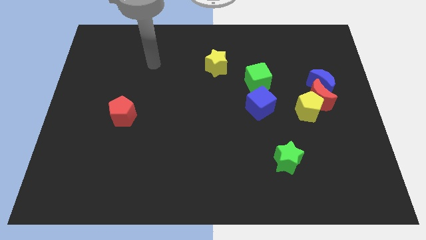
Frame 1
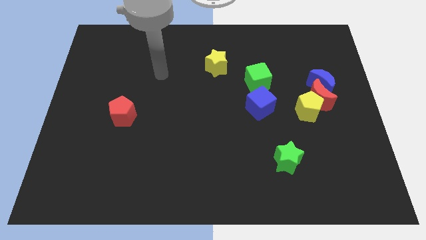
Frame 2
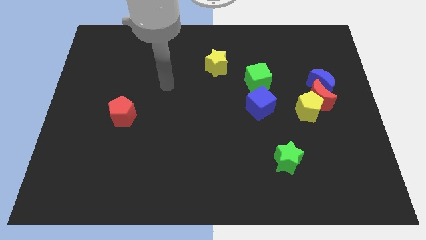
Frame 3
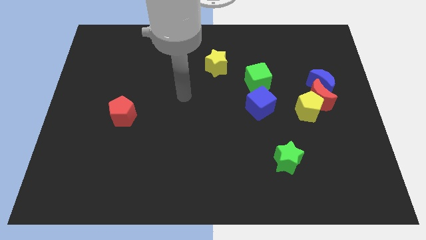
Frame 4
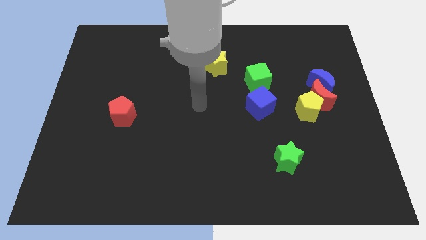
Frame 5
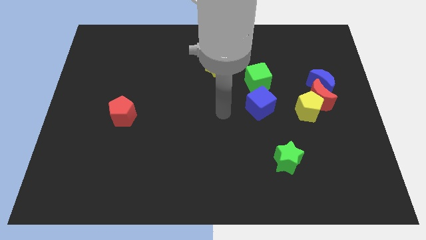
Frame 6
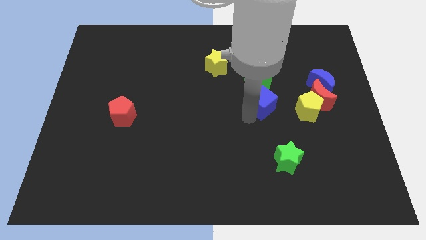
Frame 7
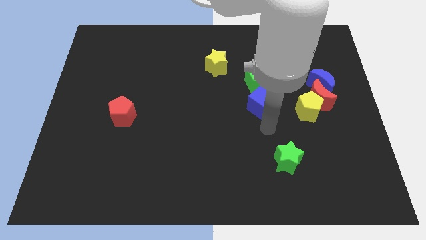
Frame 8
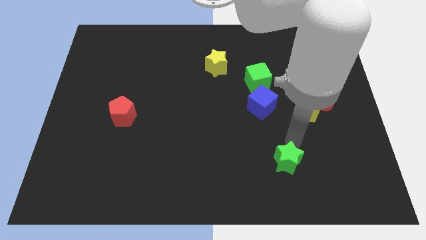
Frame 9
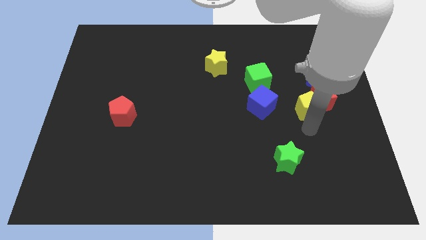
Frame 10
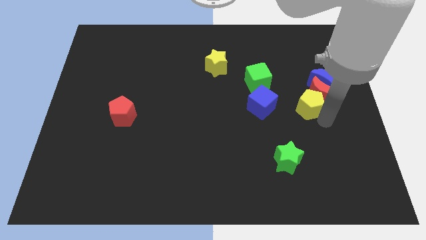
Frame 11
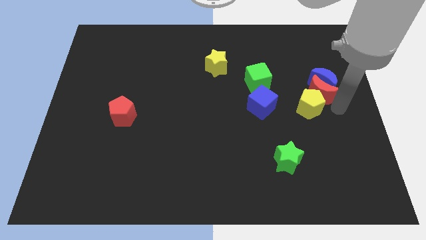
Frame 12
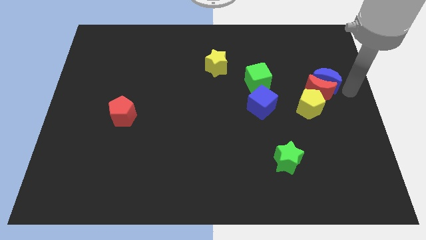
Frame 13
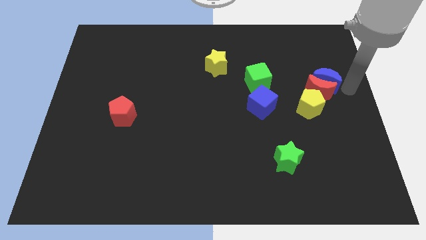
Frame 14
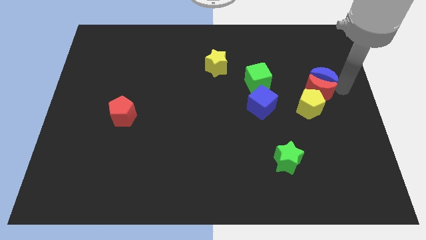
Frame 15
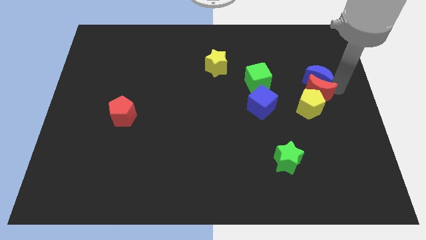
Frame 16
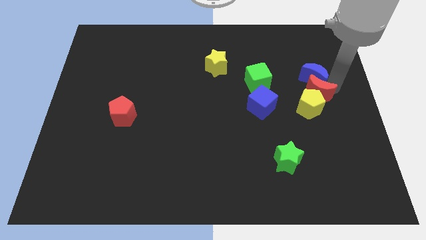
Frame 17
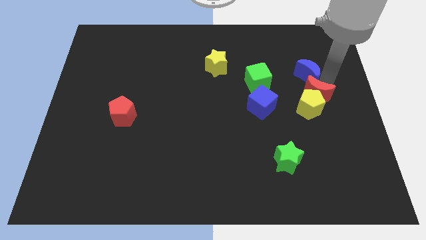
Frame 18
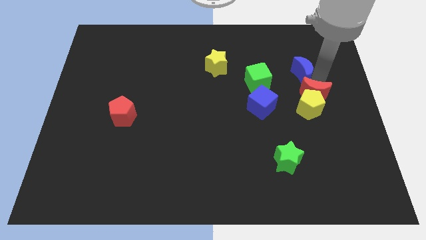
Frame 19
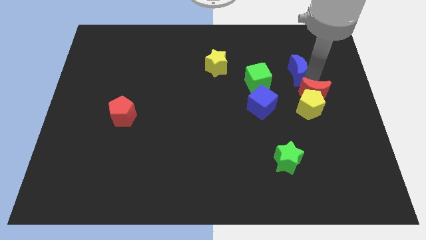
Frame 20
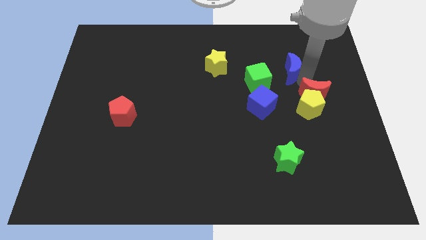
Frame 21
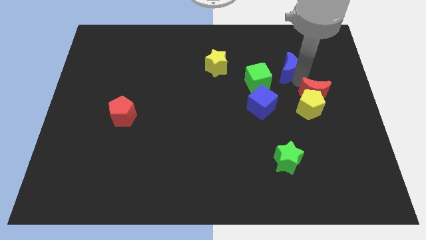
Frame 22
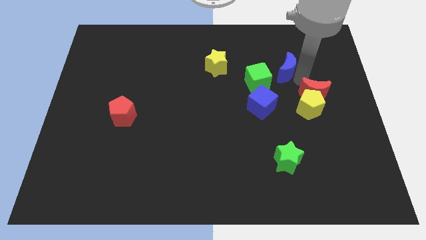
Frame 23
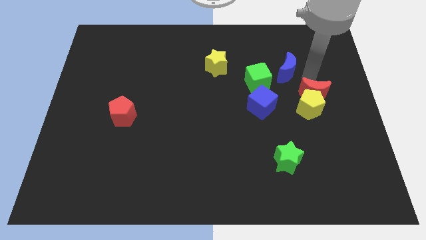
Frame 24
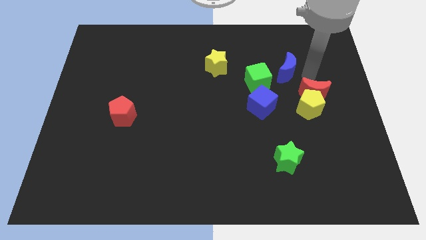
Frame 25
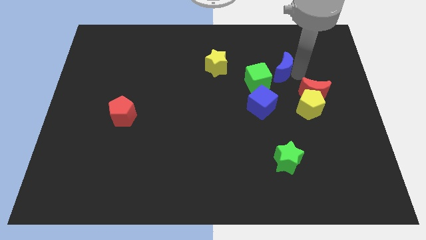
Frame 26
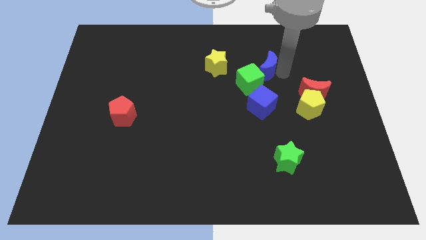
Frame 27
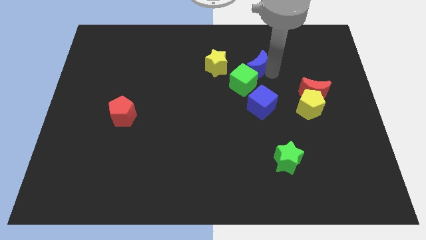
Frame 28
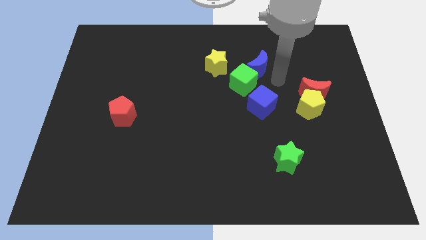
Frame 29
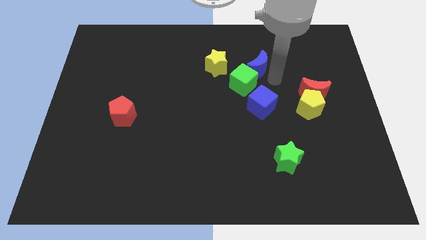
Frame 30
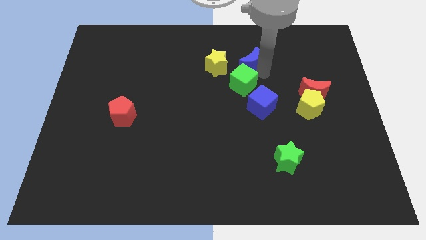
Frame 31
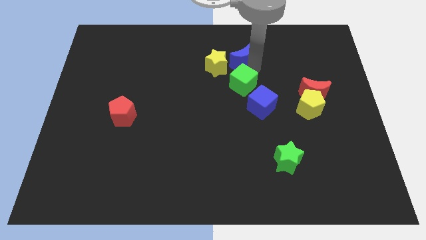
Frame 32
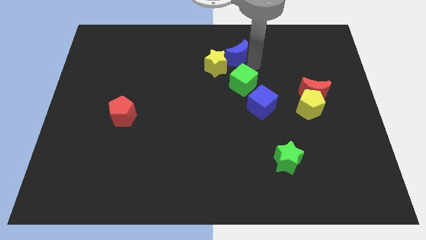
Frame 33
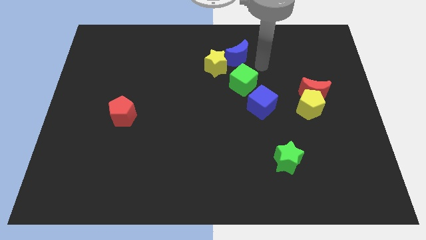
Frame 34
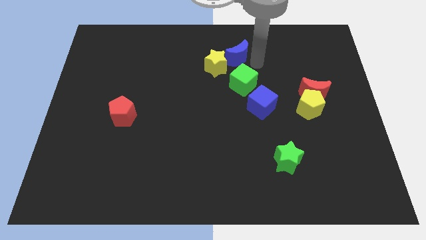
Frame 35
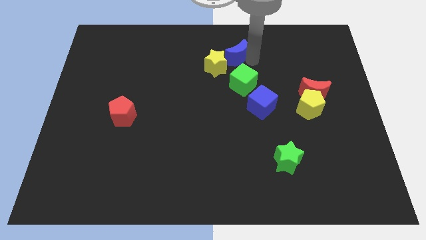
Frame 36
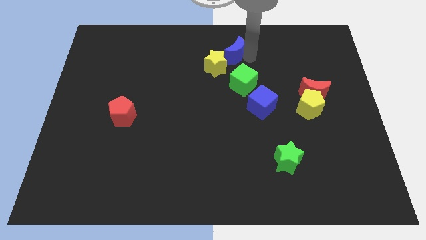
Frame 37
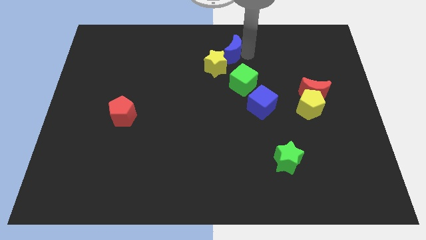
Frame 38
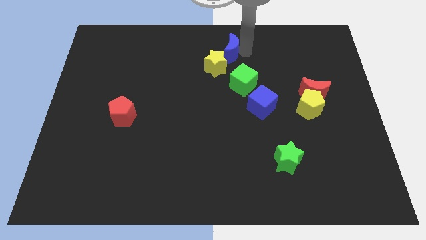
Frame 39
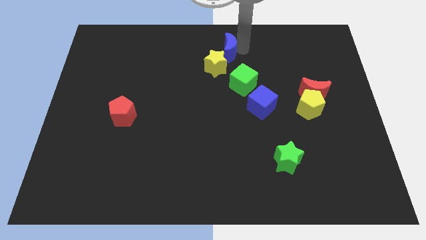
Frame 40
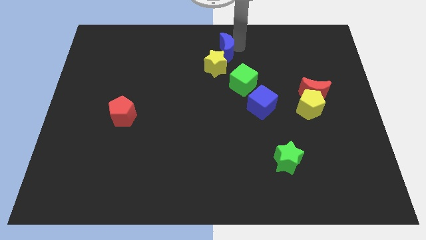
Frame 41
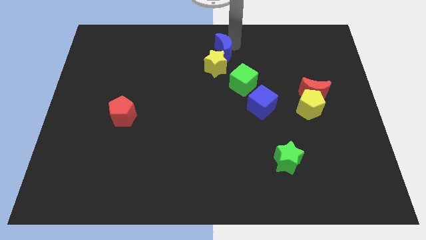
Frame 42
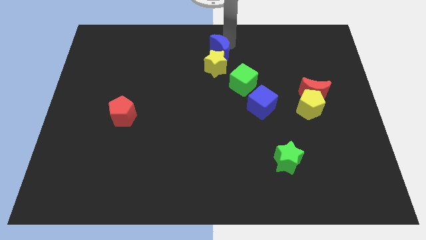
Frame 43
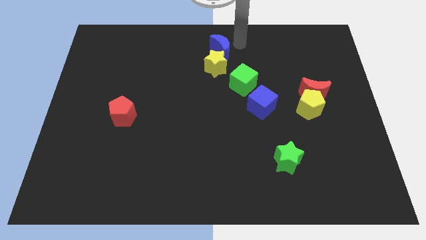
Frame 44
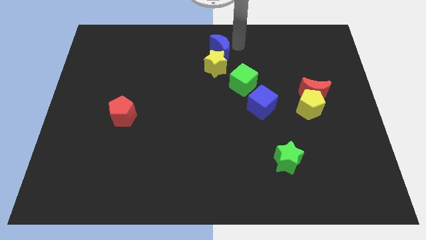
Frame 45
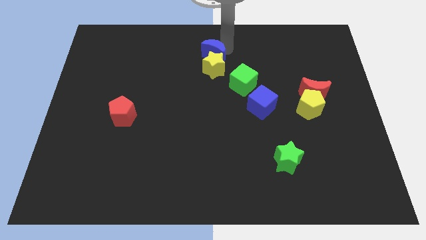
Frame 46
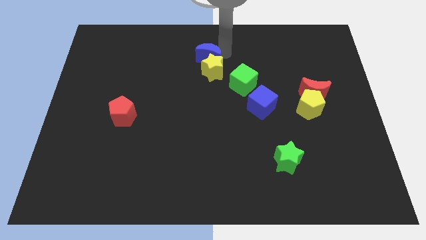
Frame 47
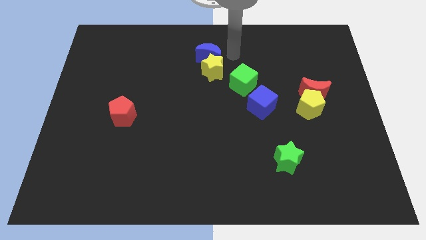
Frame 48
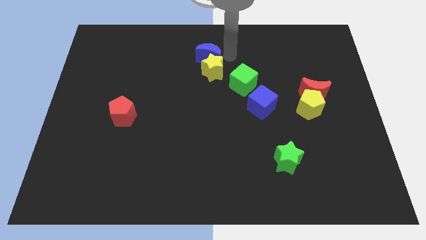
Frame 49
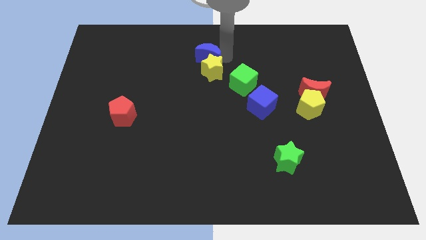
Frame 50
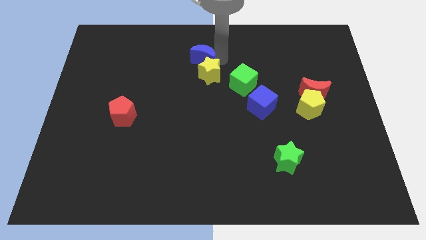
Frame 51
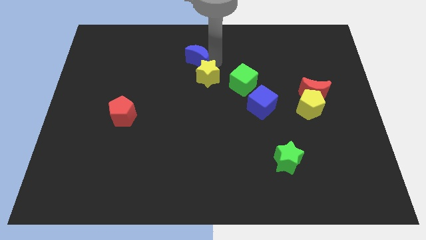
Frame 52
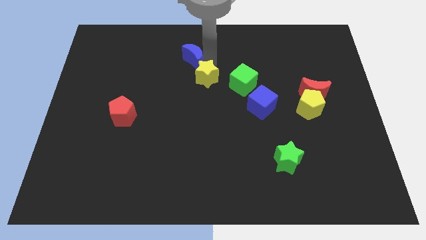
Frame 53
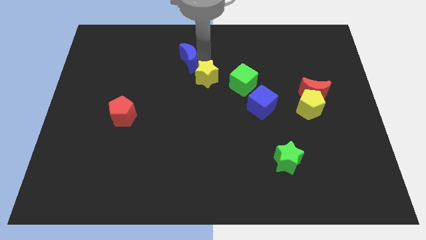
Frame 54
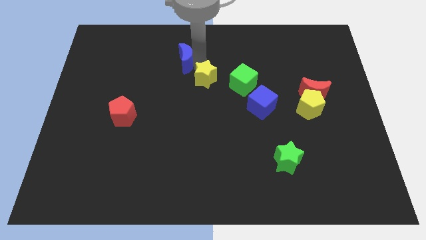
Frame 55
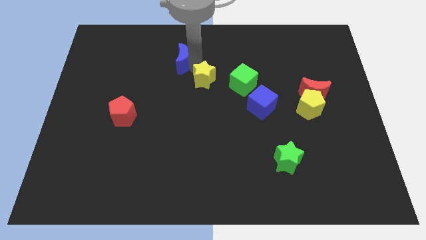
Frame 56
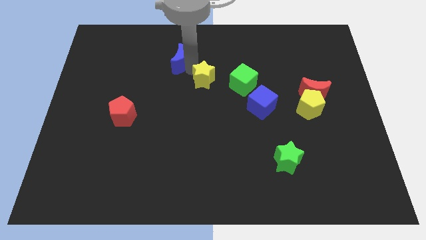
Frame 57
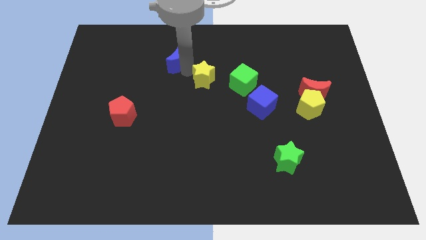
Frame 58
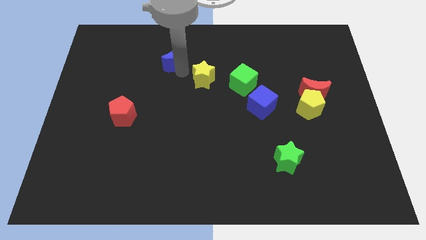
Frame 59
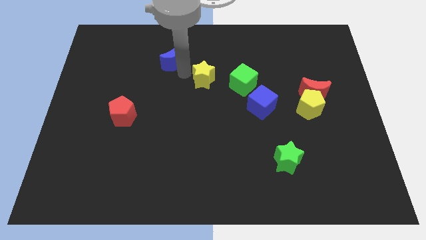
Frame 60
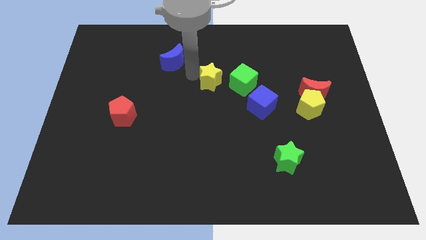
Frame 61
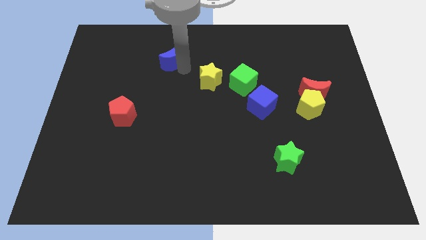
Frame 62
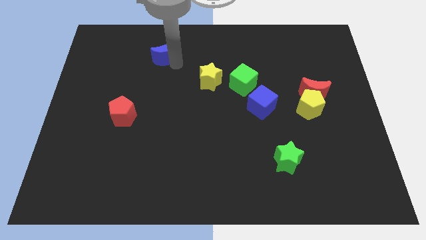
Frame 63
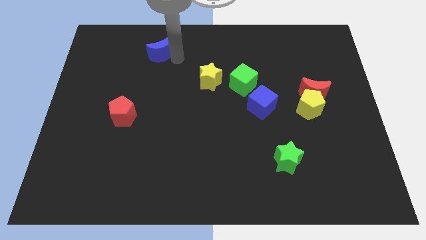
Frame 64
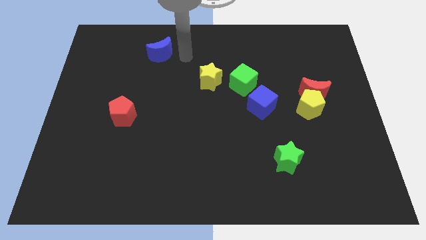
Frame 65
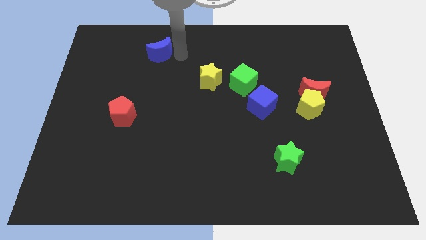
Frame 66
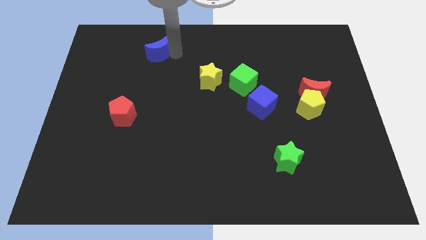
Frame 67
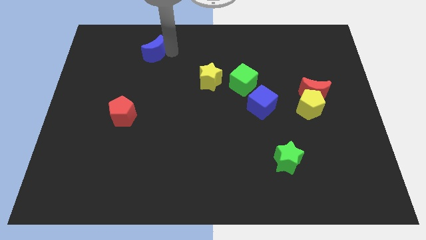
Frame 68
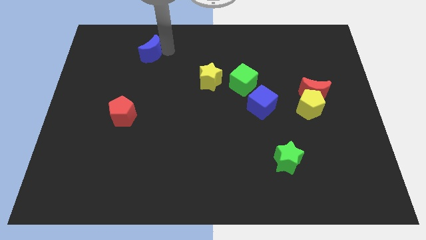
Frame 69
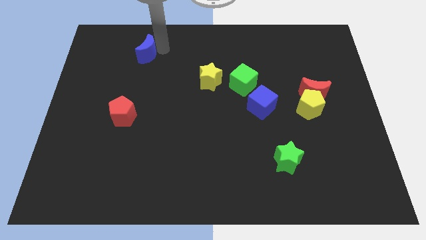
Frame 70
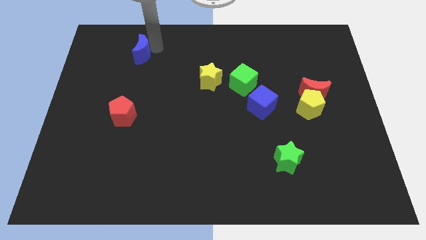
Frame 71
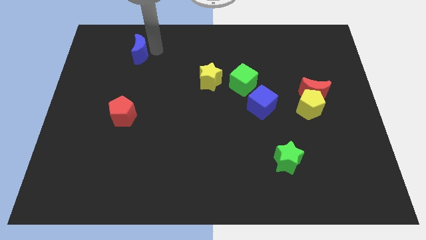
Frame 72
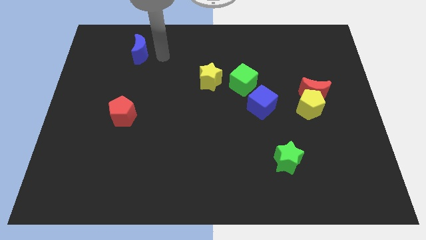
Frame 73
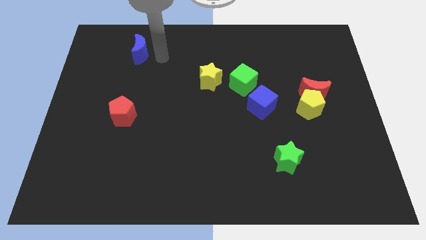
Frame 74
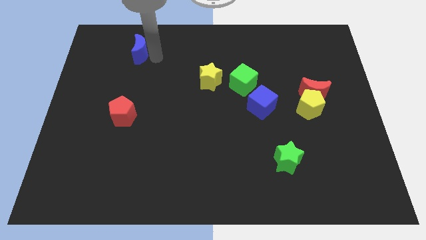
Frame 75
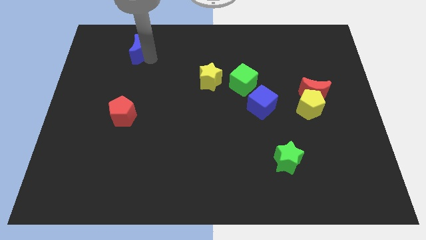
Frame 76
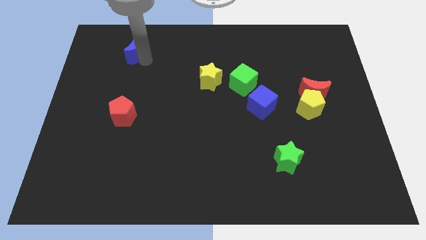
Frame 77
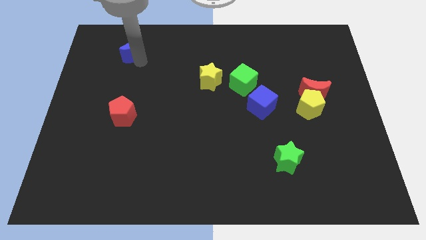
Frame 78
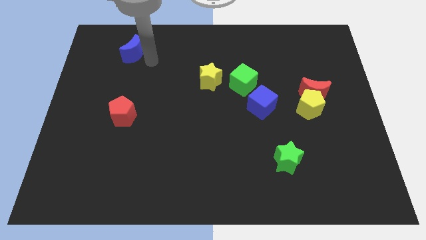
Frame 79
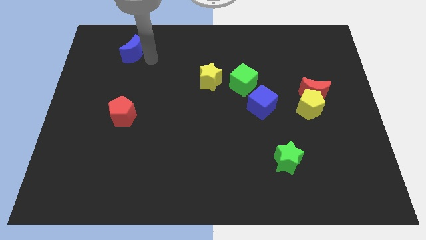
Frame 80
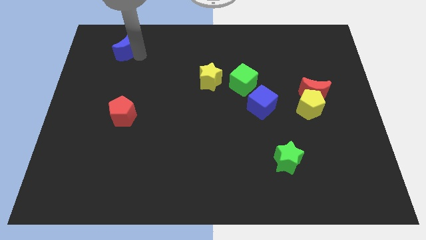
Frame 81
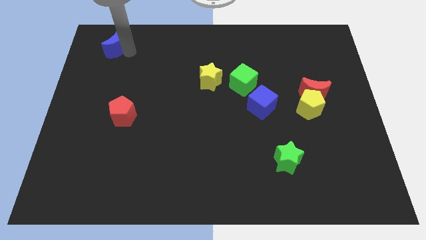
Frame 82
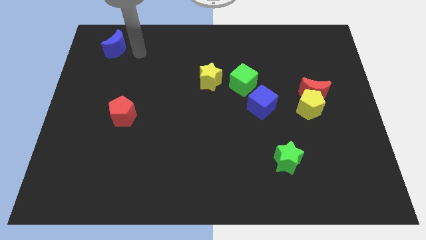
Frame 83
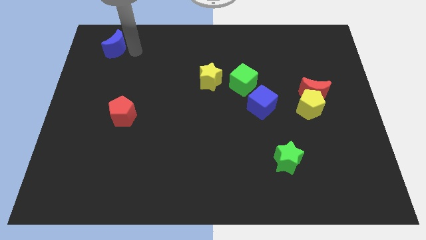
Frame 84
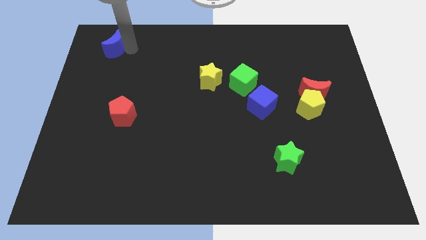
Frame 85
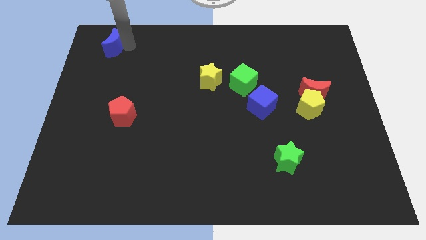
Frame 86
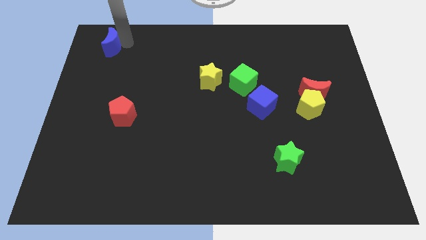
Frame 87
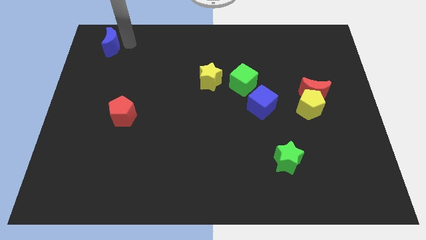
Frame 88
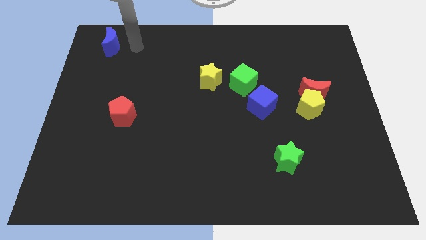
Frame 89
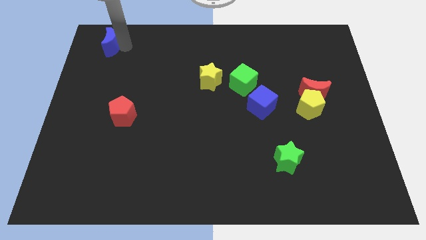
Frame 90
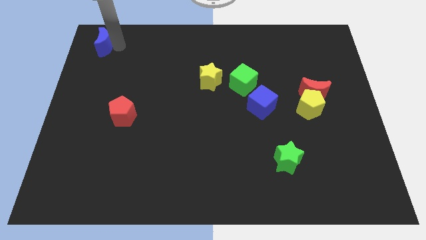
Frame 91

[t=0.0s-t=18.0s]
put the blue moon to the top left
